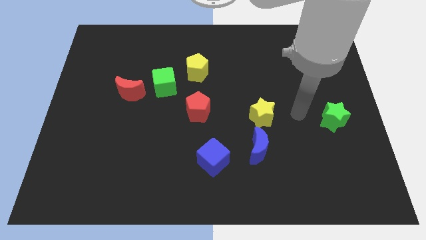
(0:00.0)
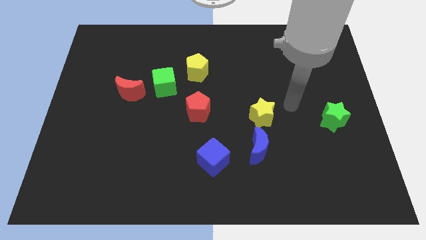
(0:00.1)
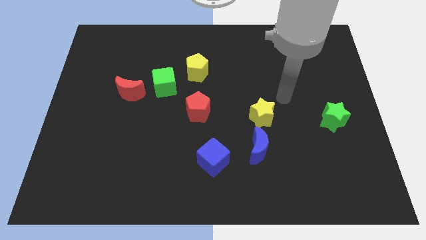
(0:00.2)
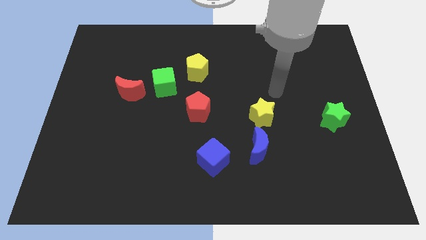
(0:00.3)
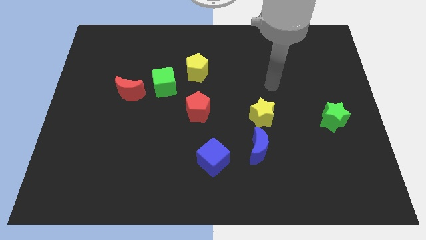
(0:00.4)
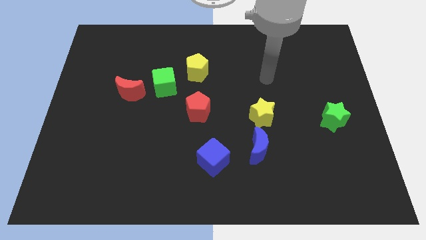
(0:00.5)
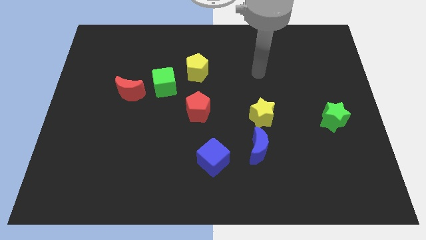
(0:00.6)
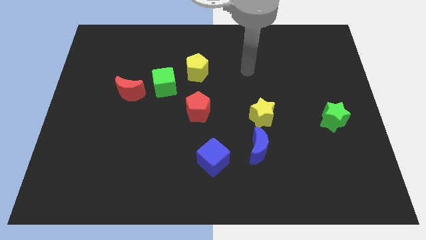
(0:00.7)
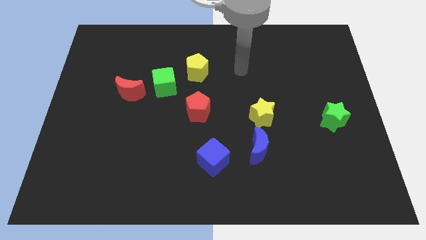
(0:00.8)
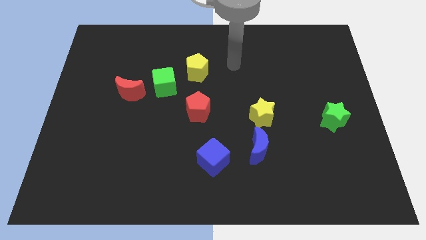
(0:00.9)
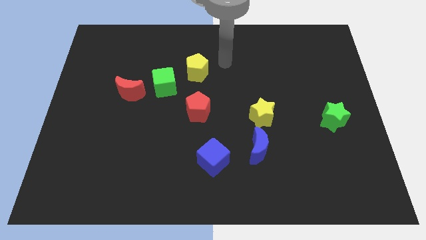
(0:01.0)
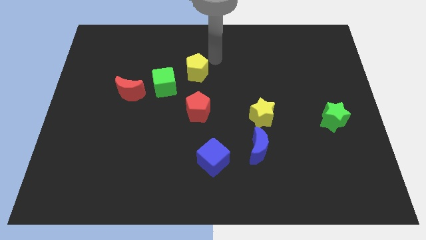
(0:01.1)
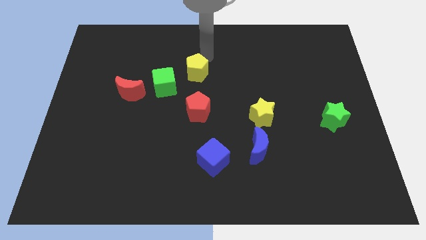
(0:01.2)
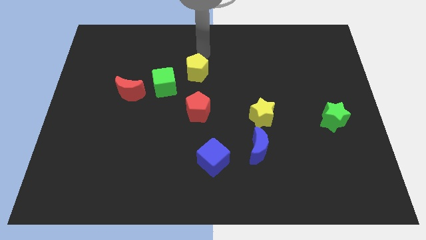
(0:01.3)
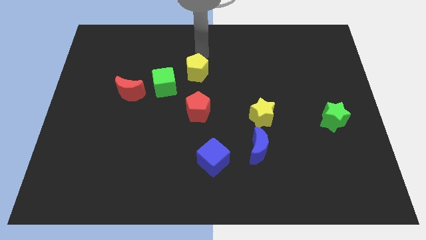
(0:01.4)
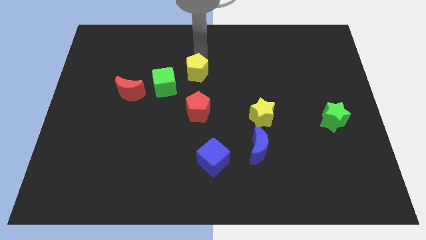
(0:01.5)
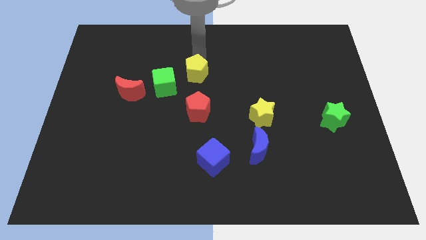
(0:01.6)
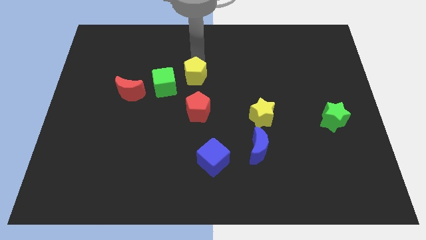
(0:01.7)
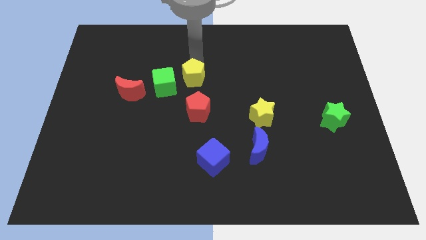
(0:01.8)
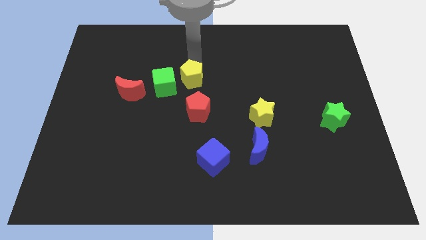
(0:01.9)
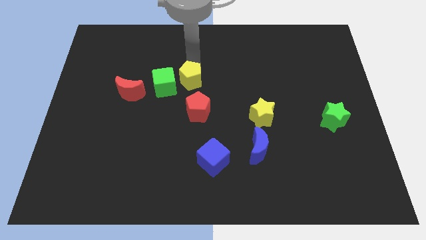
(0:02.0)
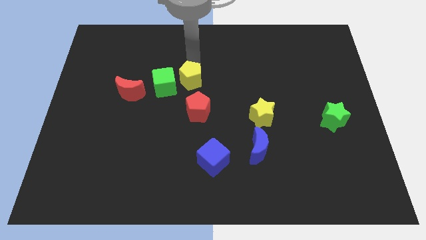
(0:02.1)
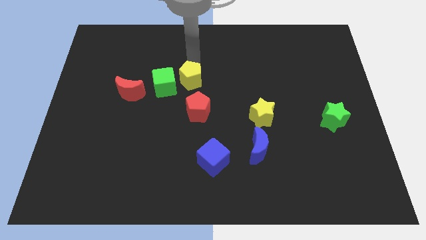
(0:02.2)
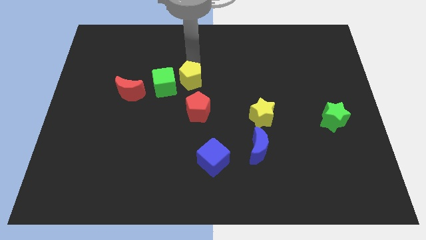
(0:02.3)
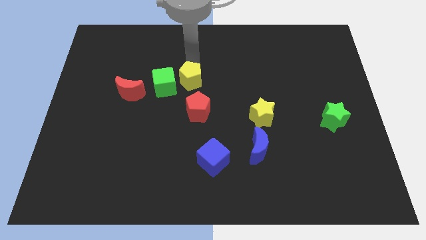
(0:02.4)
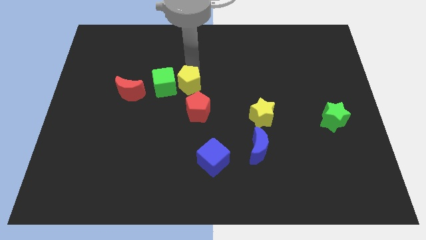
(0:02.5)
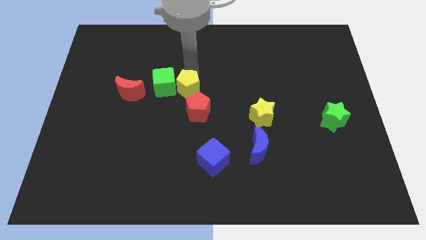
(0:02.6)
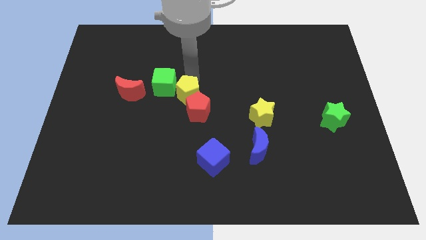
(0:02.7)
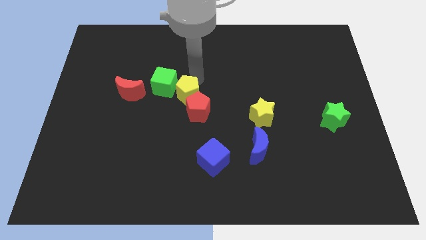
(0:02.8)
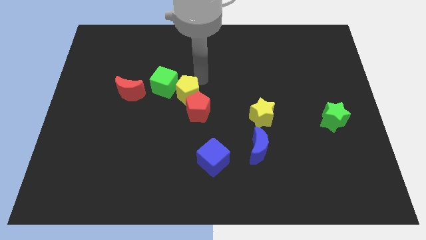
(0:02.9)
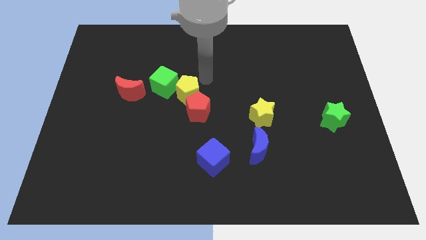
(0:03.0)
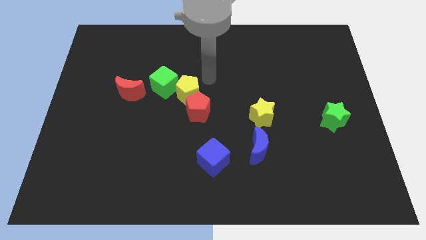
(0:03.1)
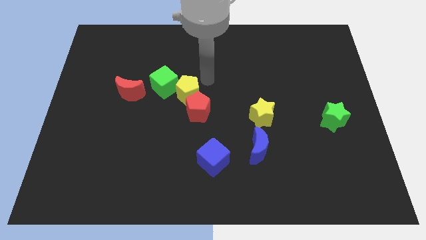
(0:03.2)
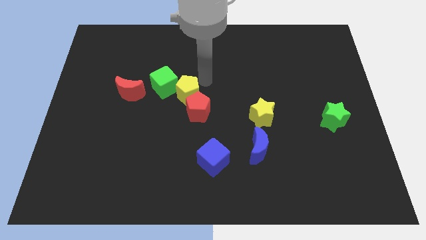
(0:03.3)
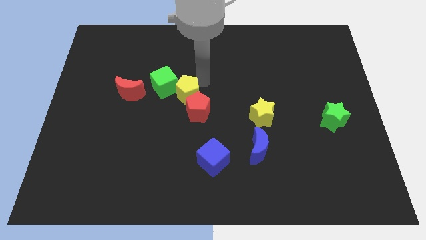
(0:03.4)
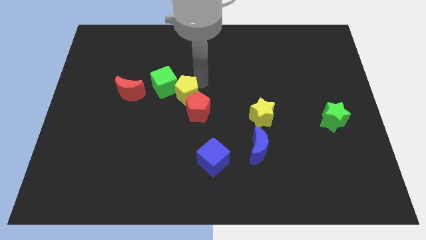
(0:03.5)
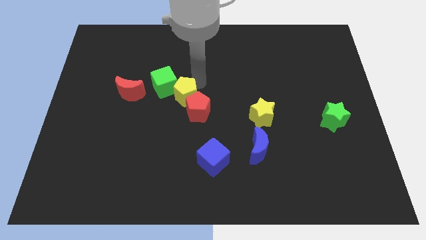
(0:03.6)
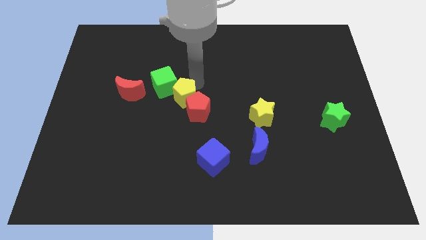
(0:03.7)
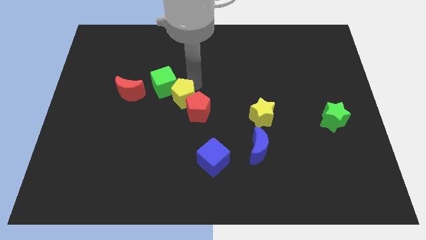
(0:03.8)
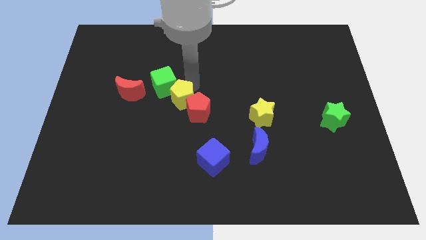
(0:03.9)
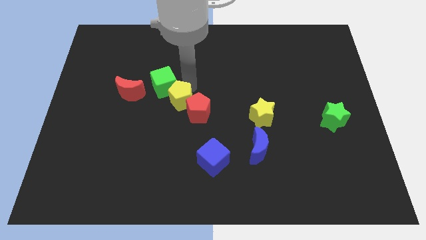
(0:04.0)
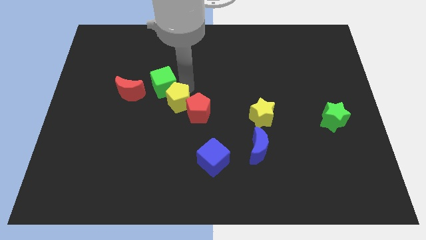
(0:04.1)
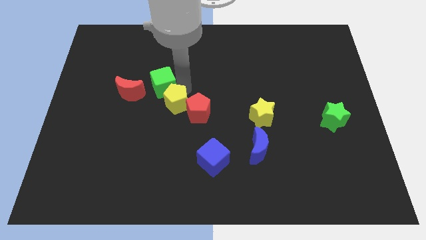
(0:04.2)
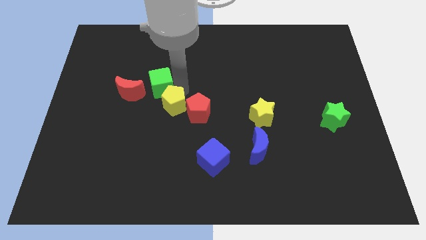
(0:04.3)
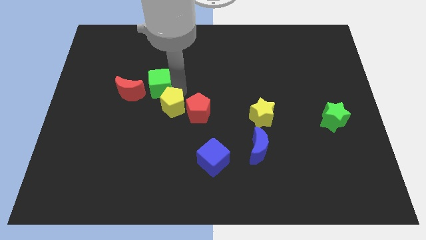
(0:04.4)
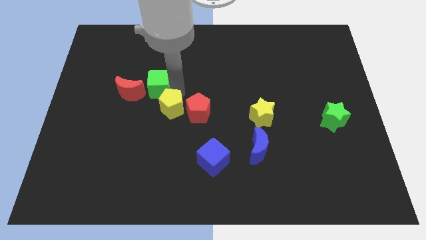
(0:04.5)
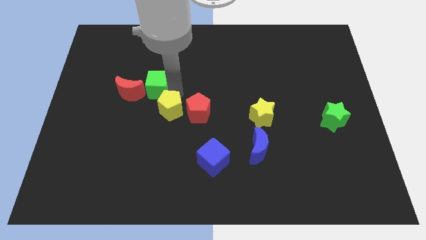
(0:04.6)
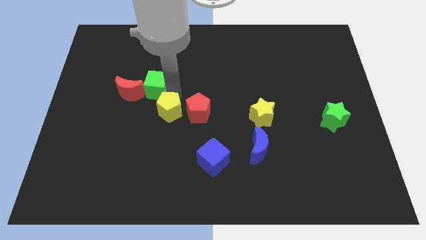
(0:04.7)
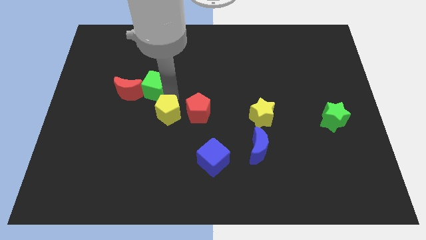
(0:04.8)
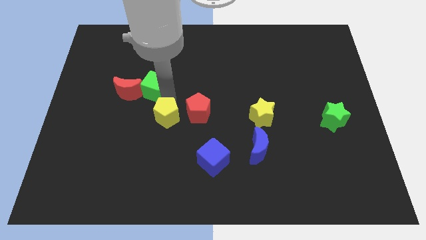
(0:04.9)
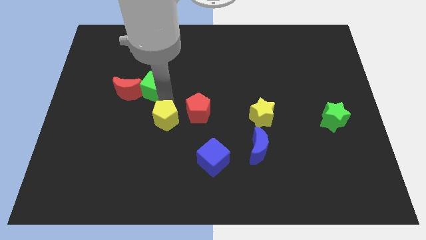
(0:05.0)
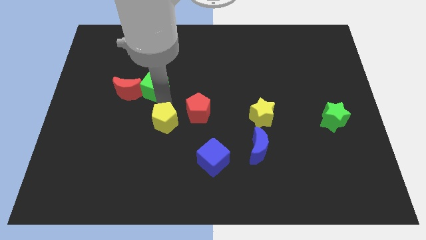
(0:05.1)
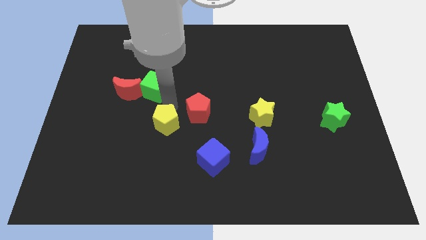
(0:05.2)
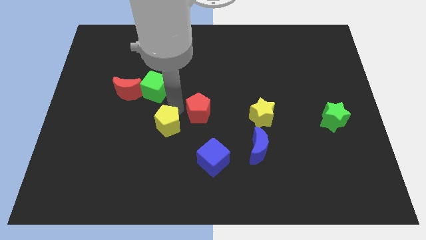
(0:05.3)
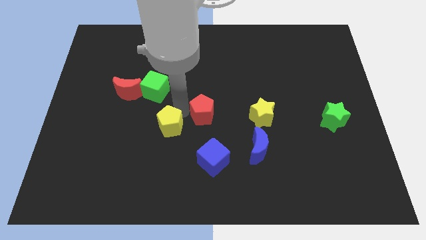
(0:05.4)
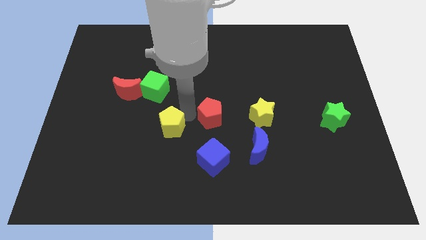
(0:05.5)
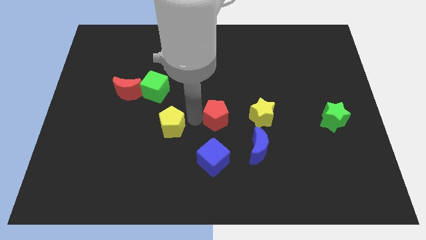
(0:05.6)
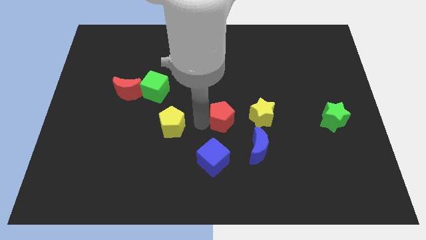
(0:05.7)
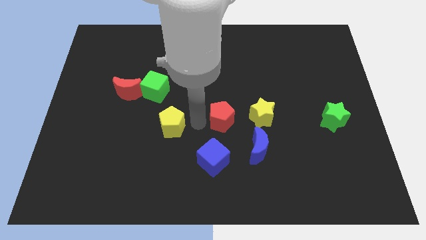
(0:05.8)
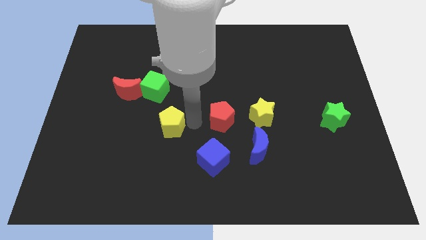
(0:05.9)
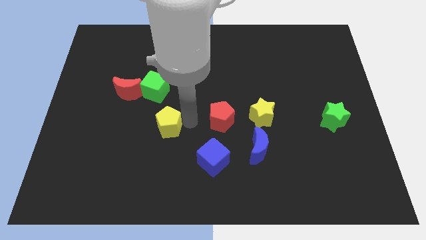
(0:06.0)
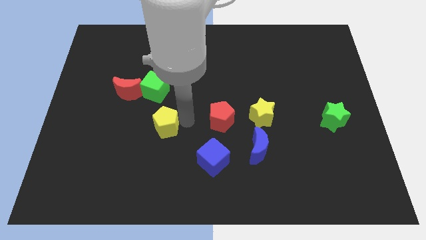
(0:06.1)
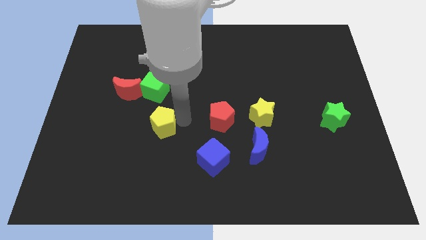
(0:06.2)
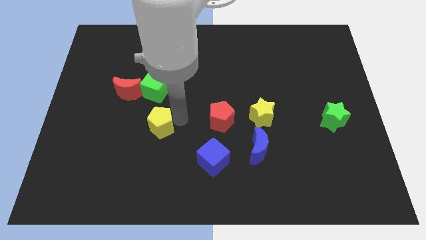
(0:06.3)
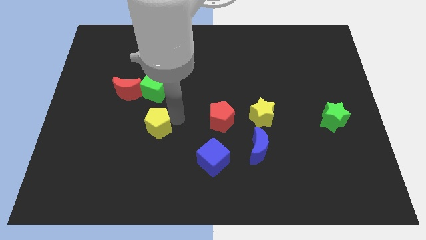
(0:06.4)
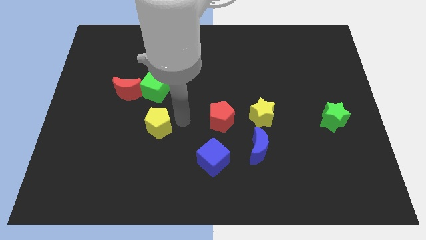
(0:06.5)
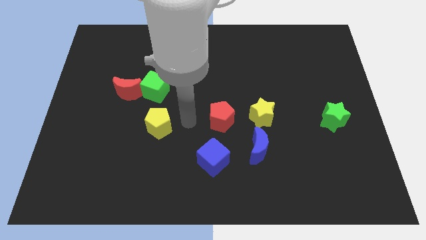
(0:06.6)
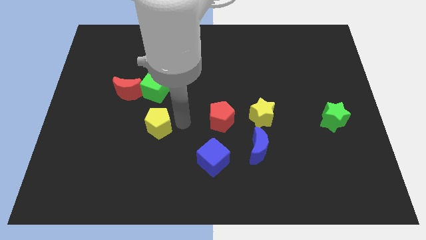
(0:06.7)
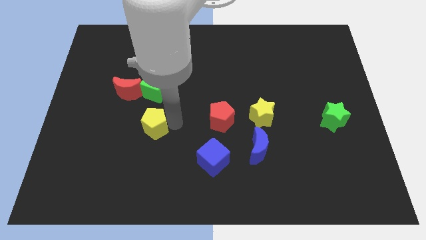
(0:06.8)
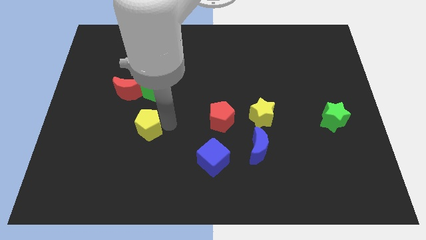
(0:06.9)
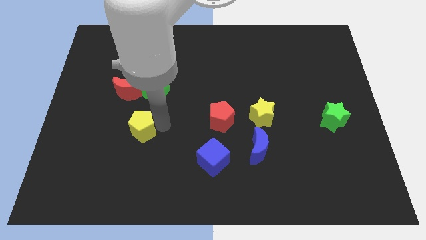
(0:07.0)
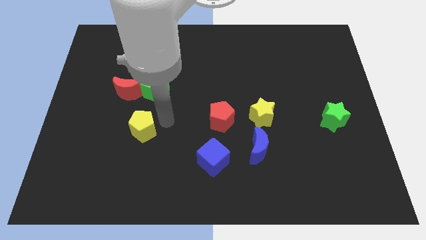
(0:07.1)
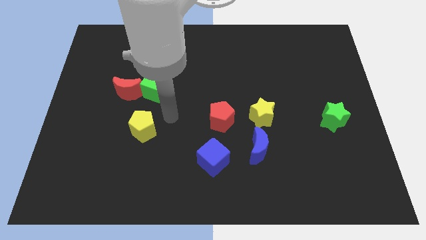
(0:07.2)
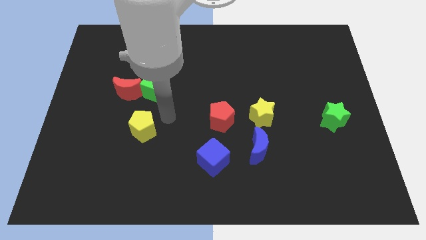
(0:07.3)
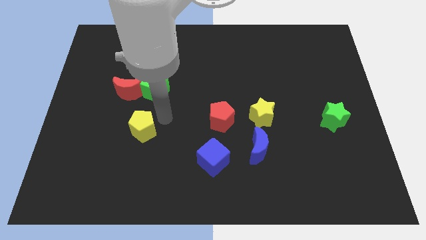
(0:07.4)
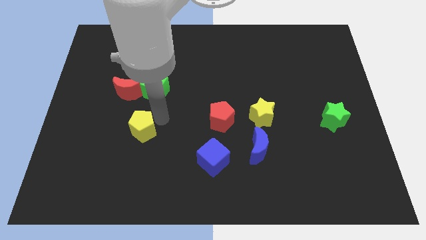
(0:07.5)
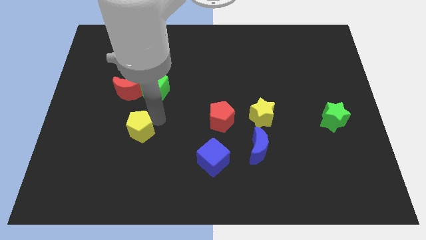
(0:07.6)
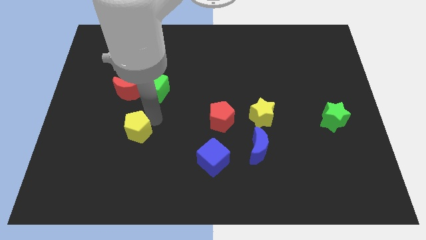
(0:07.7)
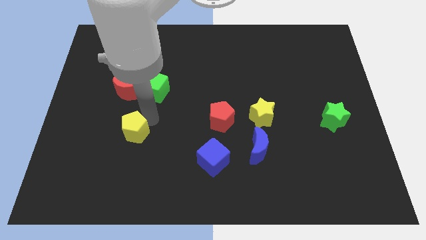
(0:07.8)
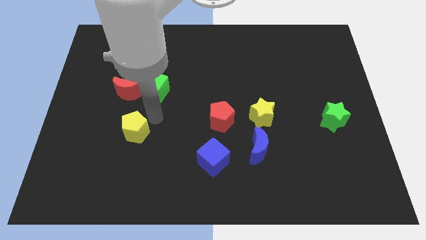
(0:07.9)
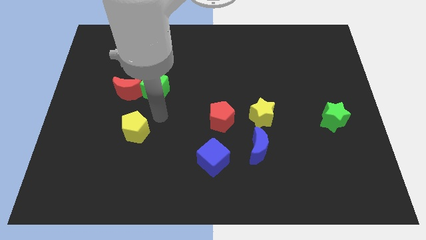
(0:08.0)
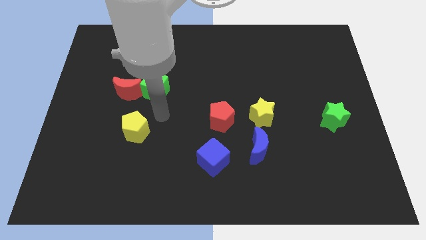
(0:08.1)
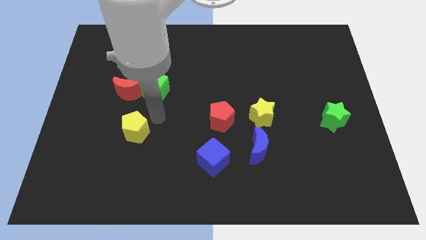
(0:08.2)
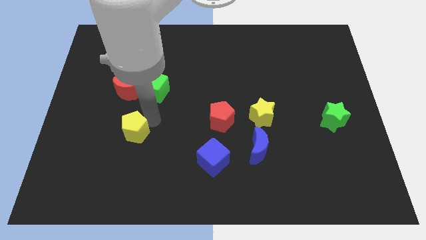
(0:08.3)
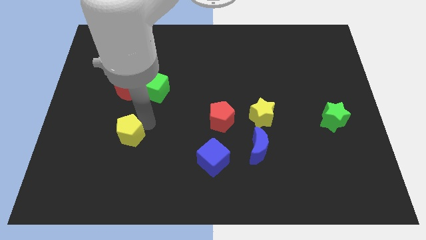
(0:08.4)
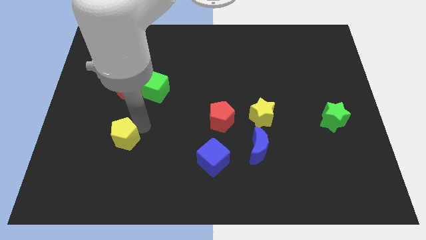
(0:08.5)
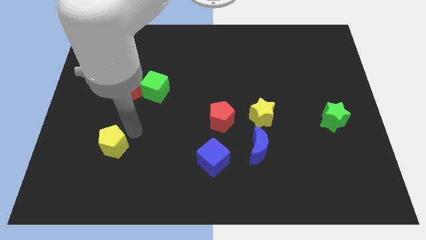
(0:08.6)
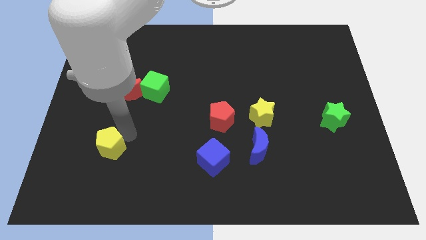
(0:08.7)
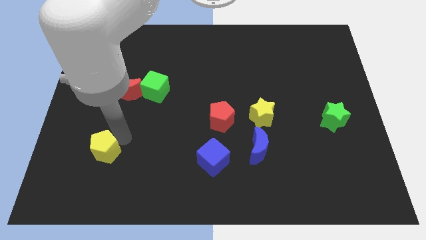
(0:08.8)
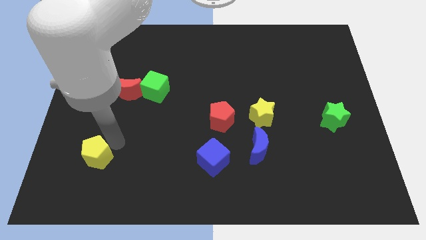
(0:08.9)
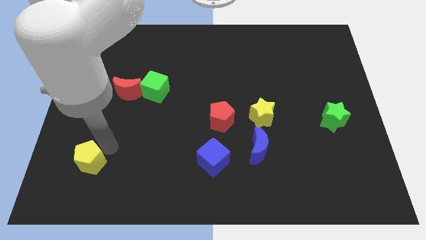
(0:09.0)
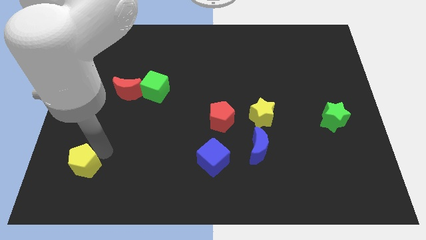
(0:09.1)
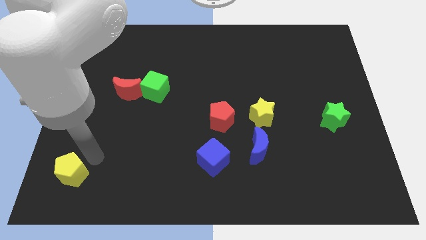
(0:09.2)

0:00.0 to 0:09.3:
move the yellow pentagon to the bottom left of the board
